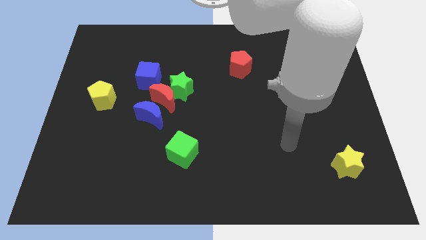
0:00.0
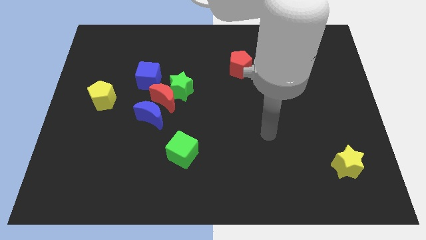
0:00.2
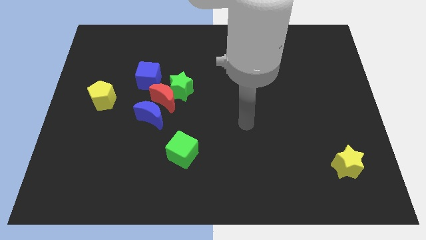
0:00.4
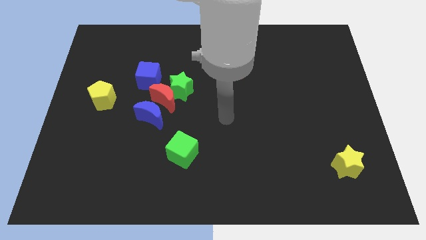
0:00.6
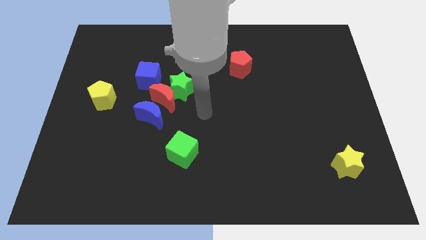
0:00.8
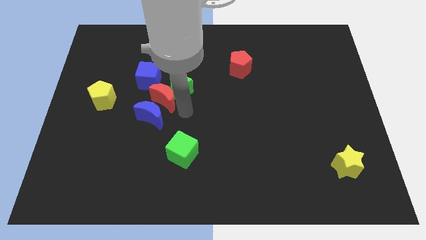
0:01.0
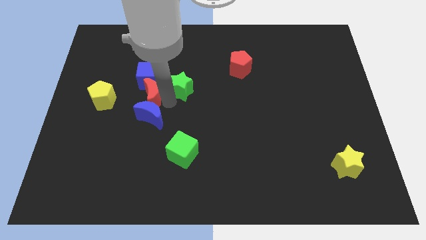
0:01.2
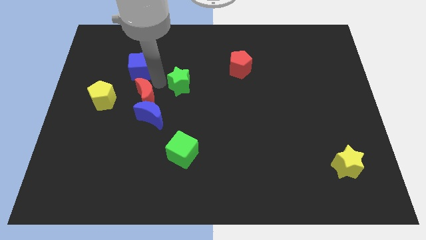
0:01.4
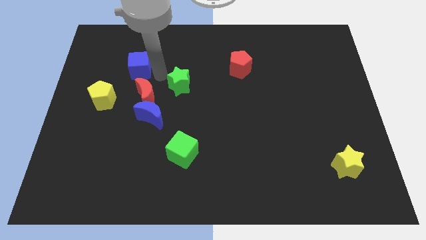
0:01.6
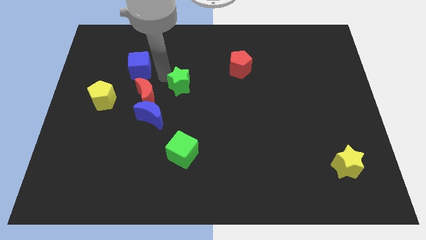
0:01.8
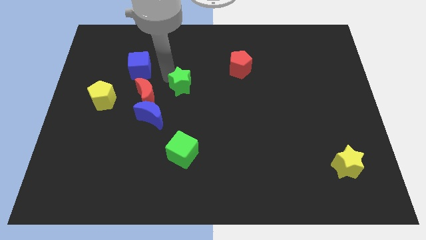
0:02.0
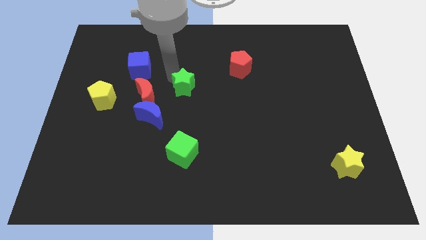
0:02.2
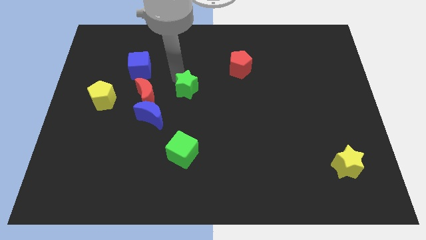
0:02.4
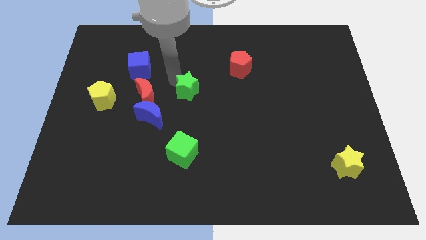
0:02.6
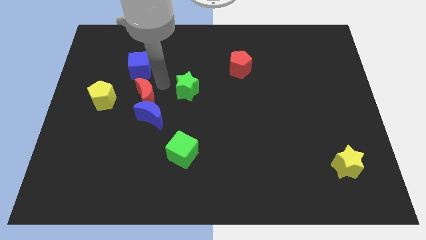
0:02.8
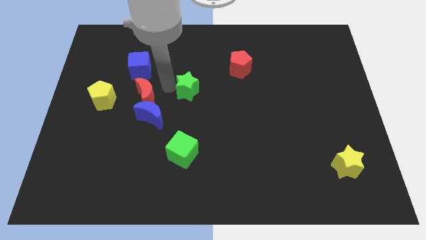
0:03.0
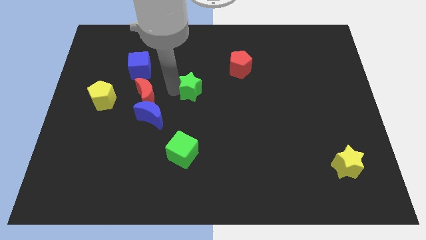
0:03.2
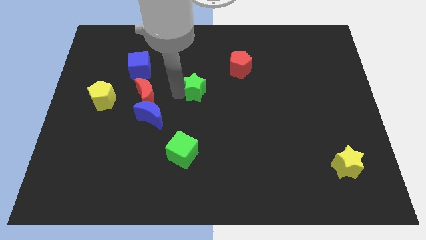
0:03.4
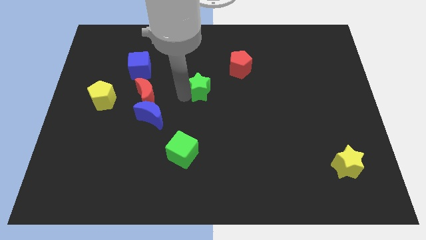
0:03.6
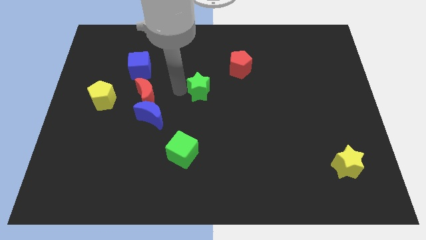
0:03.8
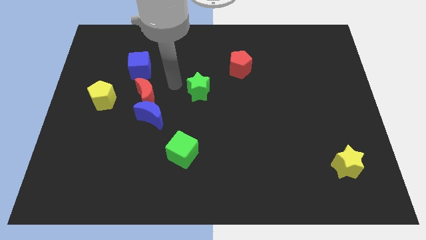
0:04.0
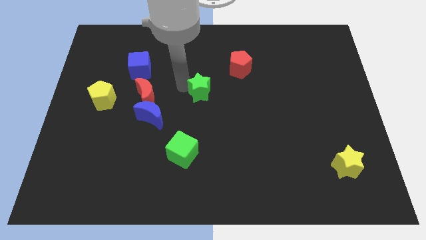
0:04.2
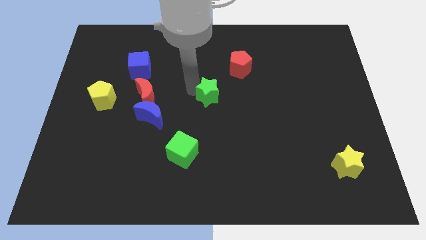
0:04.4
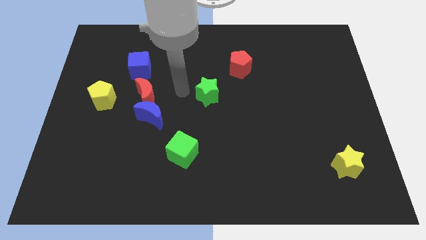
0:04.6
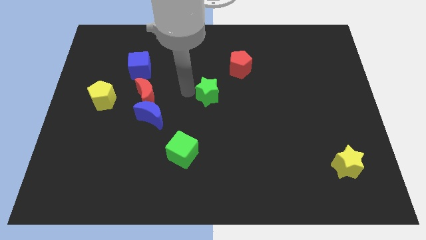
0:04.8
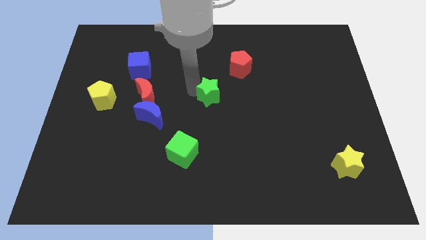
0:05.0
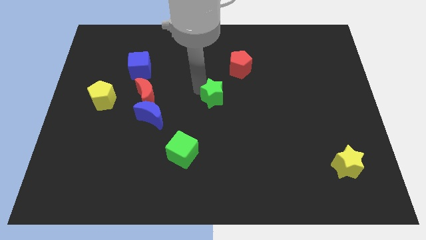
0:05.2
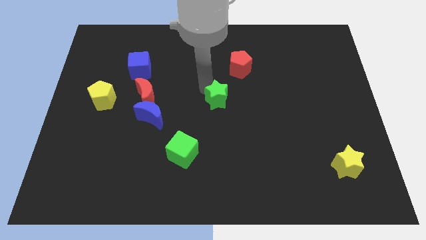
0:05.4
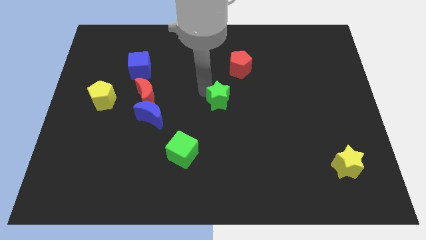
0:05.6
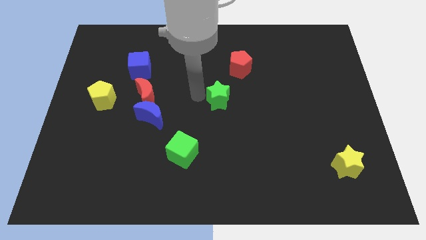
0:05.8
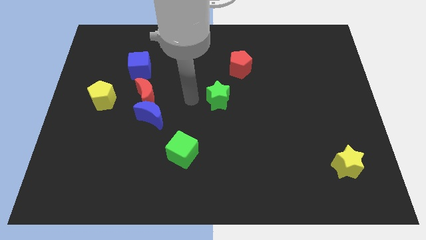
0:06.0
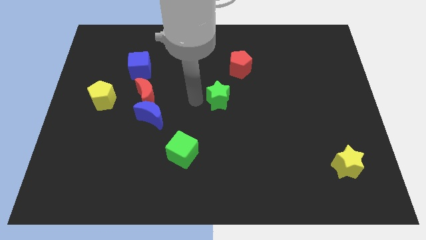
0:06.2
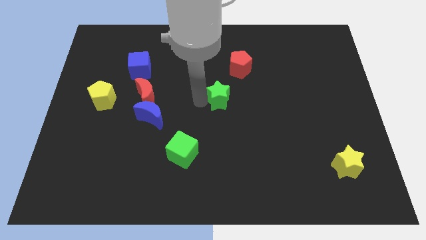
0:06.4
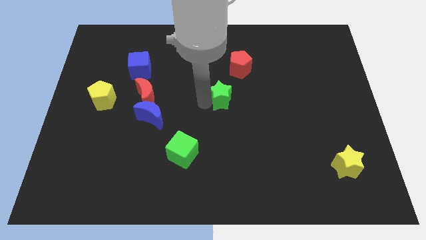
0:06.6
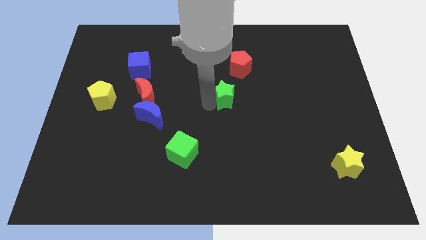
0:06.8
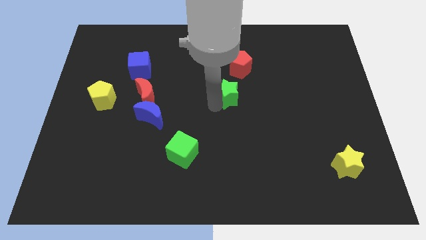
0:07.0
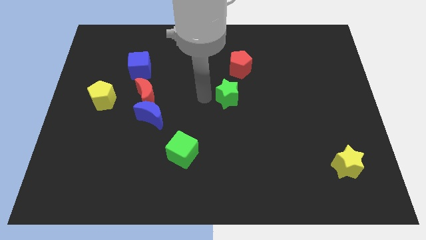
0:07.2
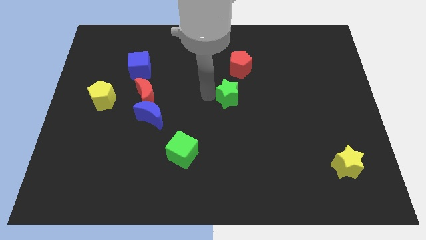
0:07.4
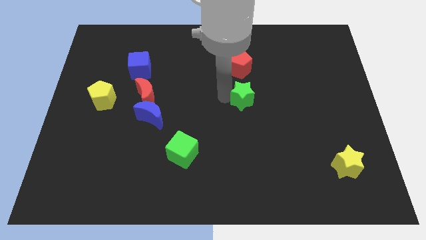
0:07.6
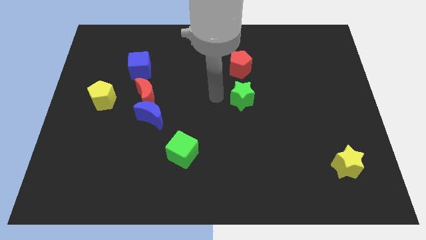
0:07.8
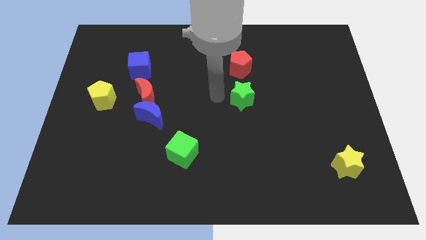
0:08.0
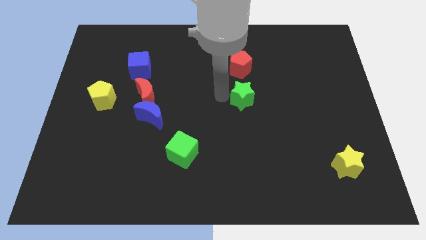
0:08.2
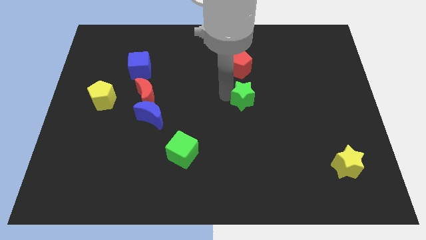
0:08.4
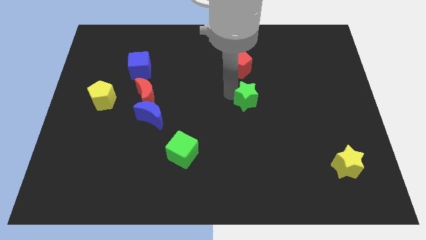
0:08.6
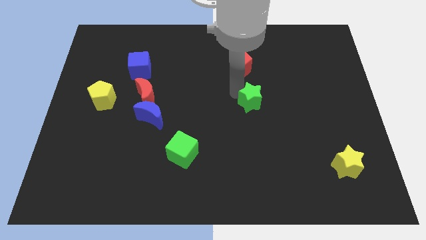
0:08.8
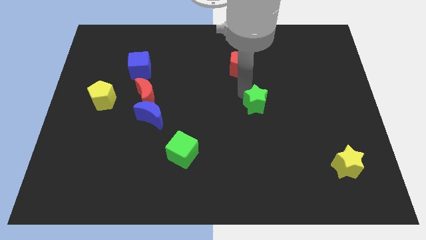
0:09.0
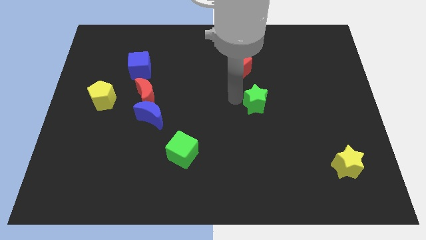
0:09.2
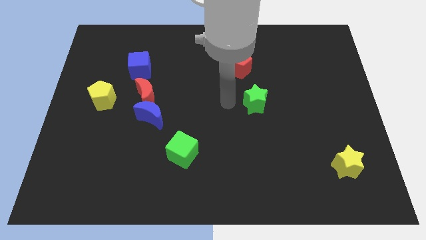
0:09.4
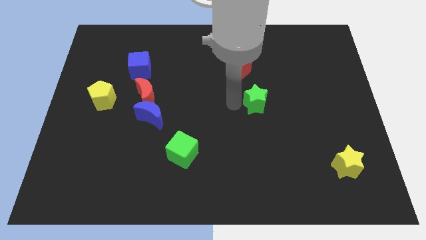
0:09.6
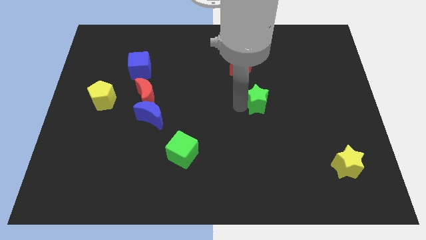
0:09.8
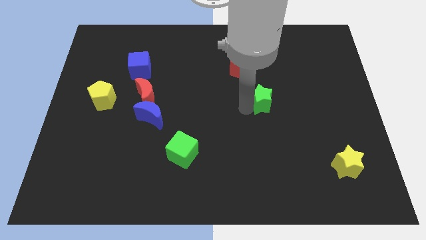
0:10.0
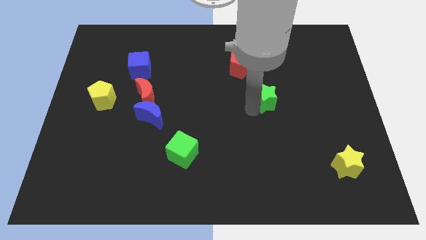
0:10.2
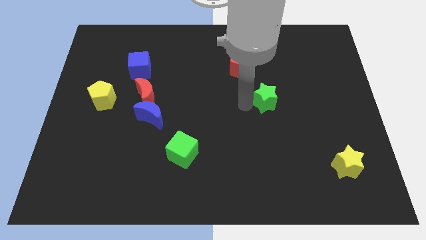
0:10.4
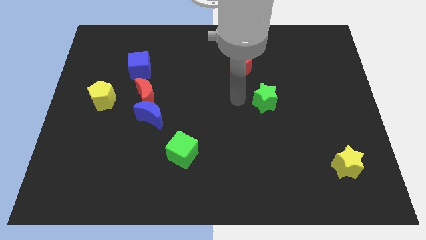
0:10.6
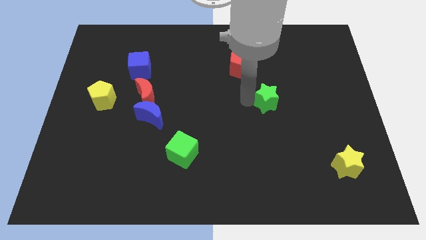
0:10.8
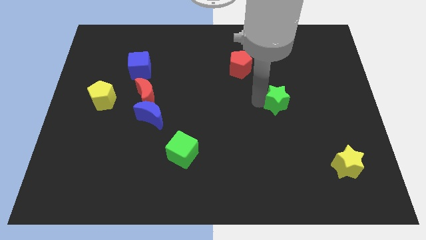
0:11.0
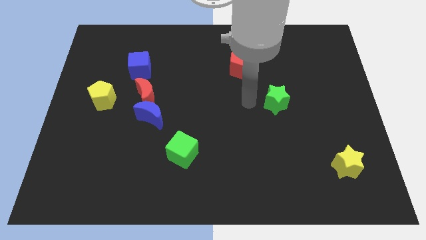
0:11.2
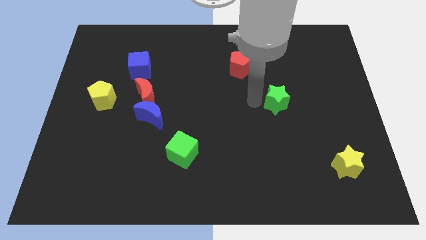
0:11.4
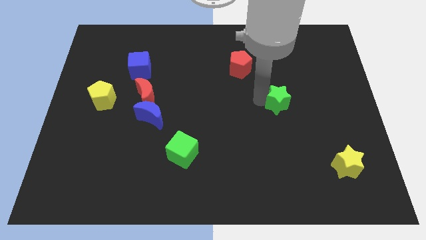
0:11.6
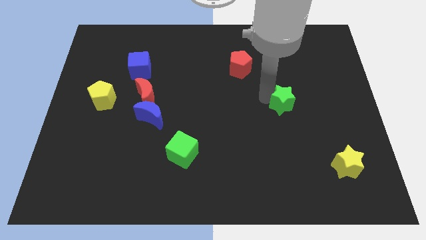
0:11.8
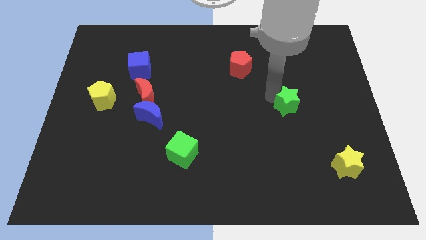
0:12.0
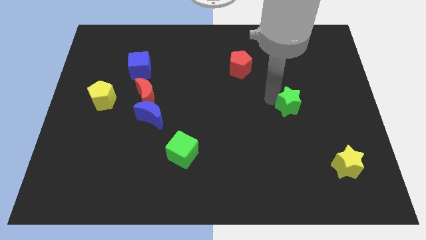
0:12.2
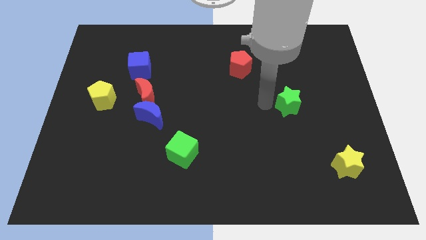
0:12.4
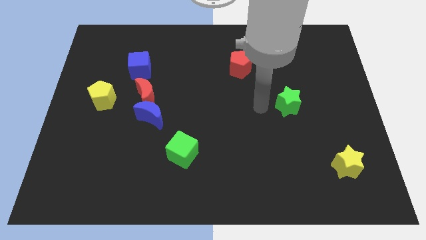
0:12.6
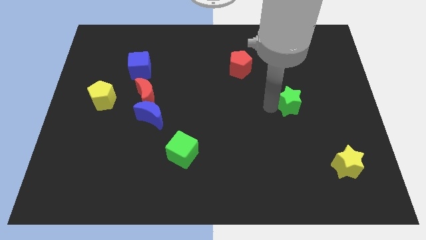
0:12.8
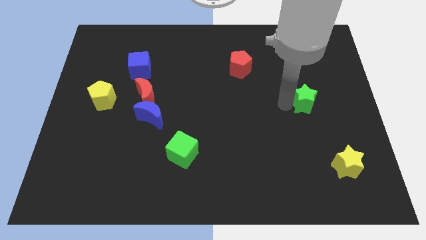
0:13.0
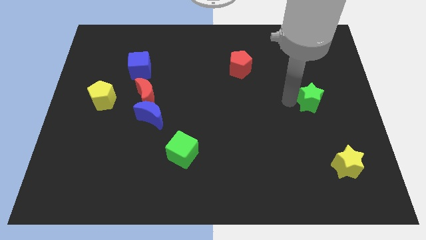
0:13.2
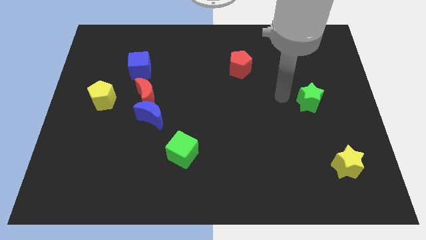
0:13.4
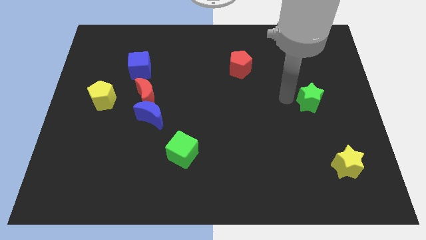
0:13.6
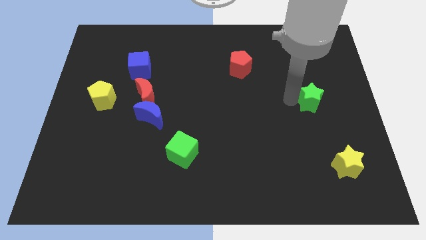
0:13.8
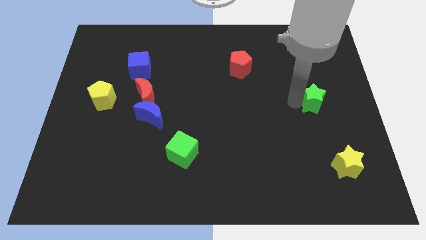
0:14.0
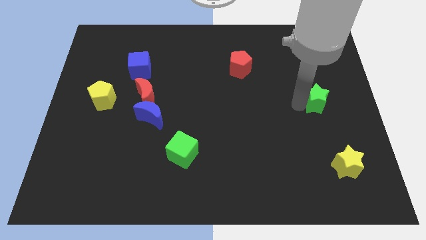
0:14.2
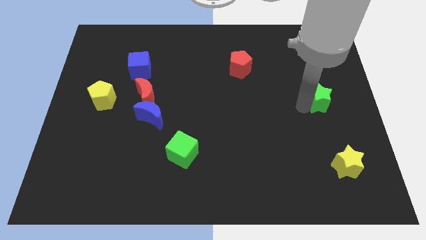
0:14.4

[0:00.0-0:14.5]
put the green star to the center right
